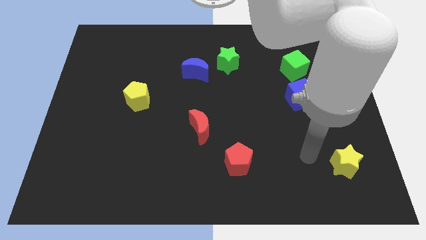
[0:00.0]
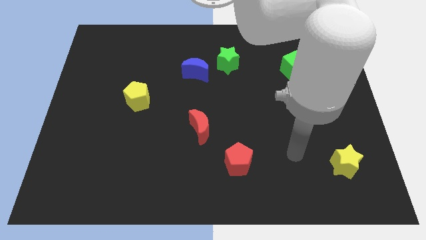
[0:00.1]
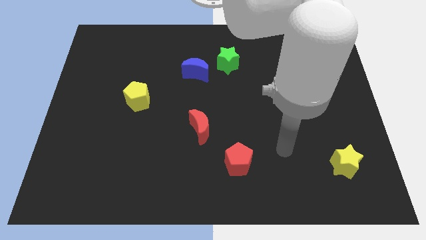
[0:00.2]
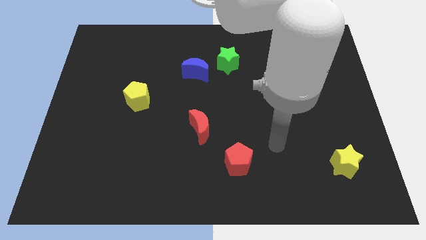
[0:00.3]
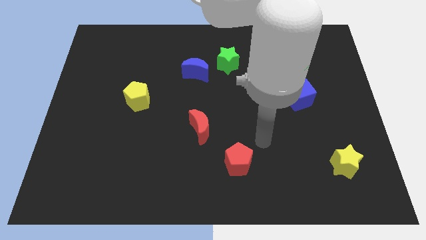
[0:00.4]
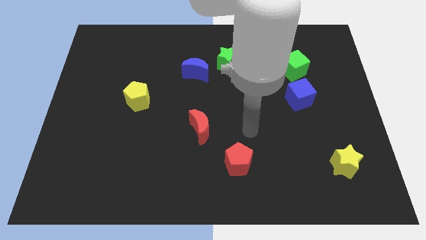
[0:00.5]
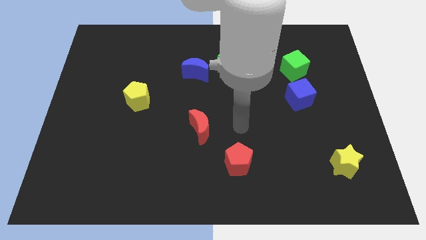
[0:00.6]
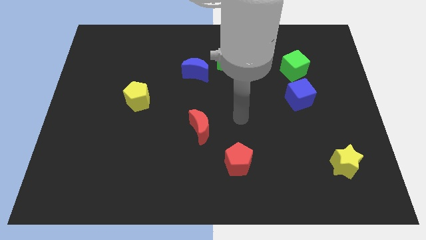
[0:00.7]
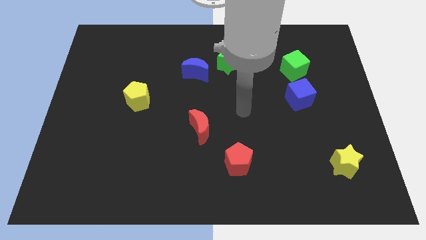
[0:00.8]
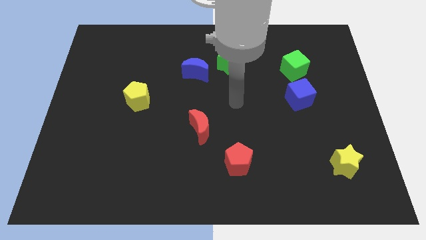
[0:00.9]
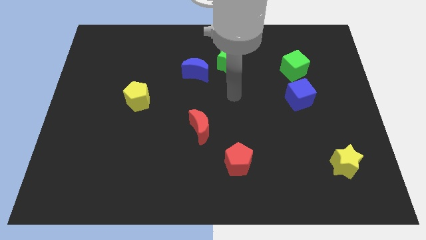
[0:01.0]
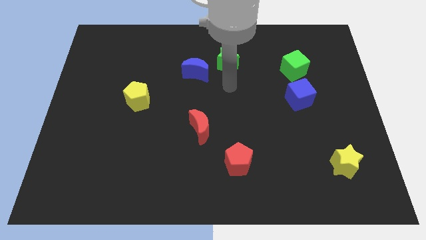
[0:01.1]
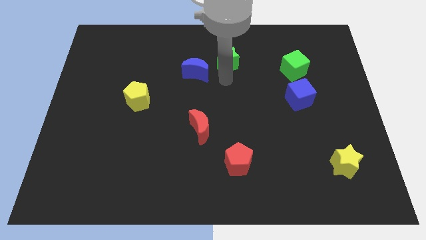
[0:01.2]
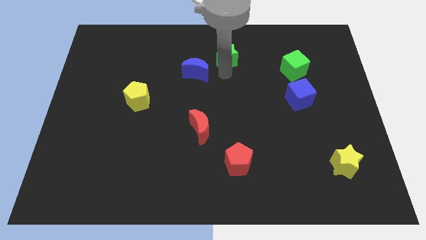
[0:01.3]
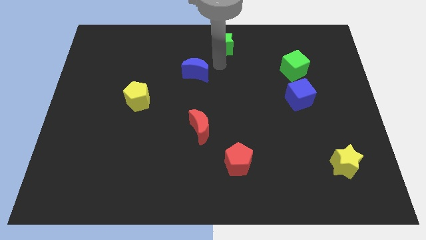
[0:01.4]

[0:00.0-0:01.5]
move the blue moon away from the green star

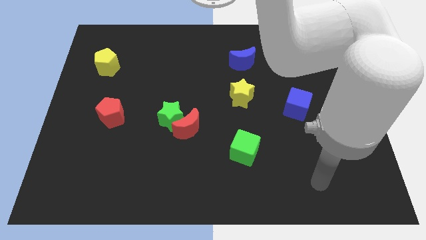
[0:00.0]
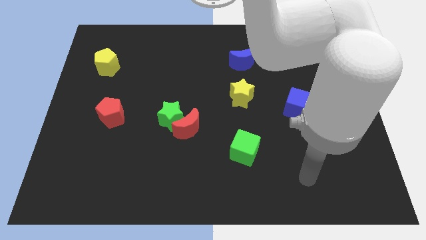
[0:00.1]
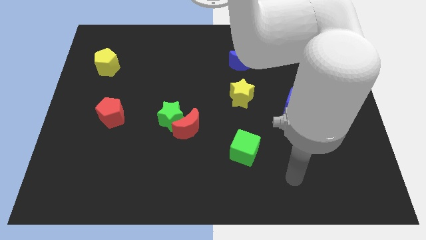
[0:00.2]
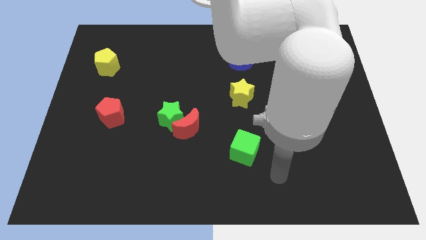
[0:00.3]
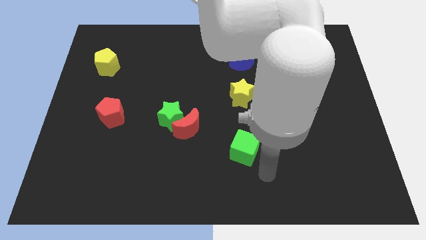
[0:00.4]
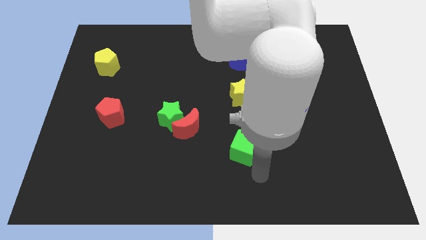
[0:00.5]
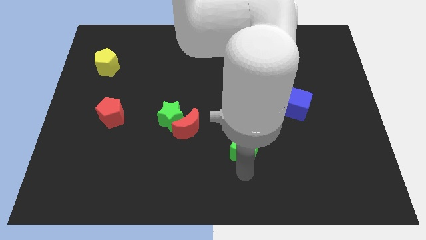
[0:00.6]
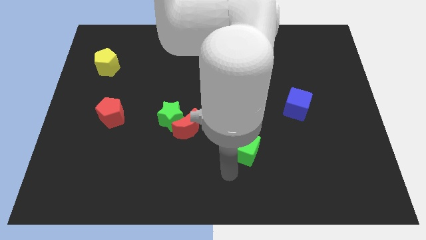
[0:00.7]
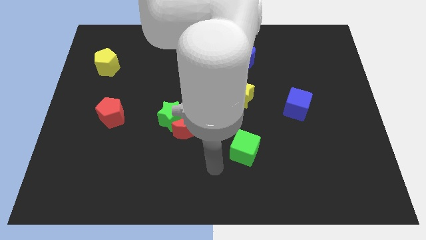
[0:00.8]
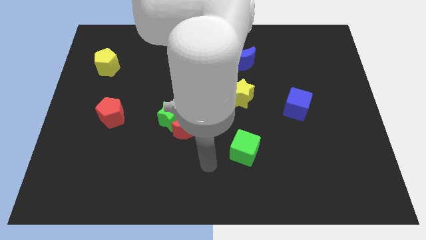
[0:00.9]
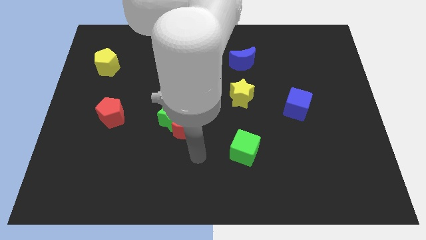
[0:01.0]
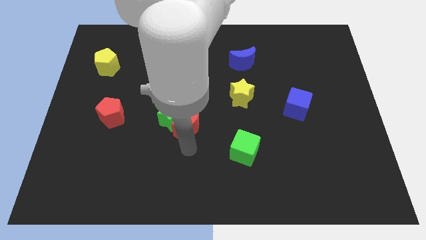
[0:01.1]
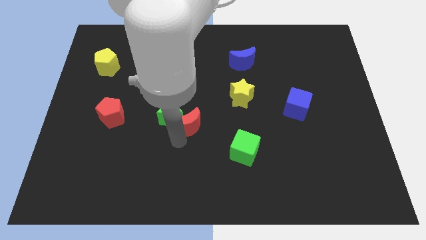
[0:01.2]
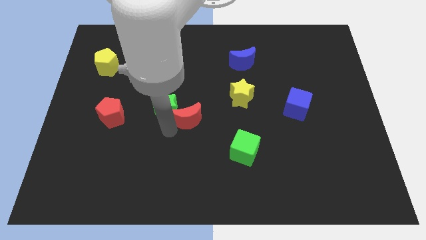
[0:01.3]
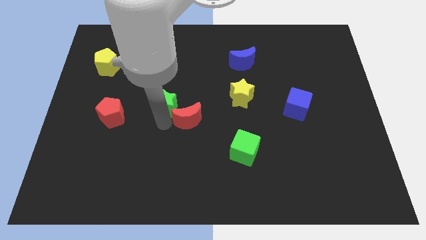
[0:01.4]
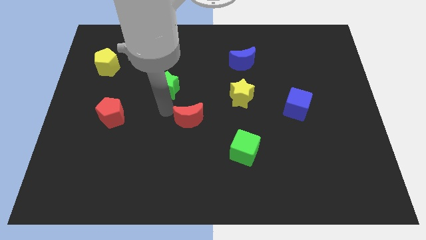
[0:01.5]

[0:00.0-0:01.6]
separate the red moon from the green star

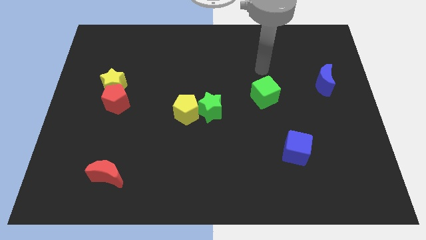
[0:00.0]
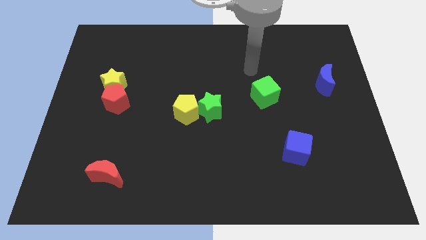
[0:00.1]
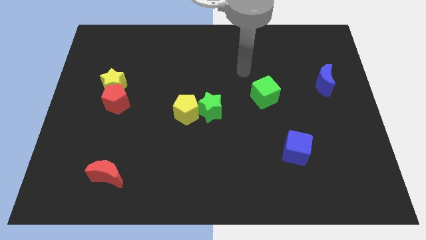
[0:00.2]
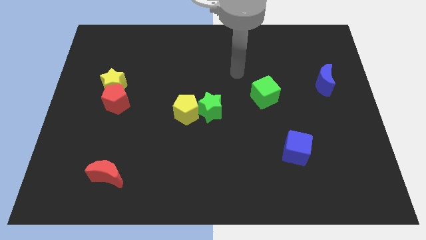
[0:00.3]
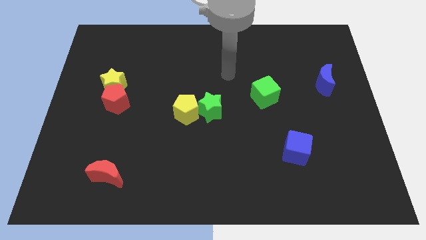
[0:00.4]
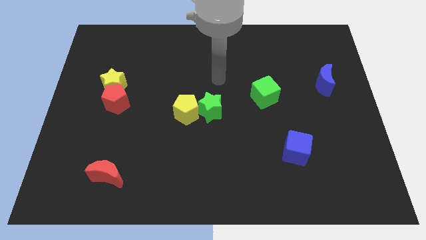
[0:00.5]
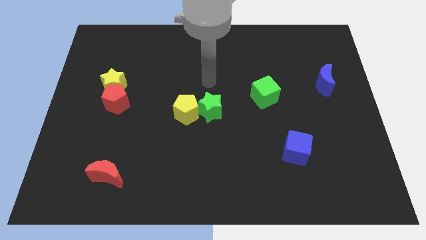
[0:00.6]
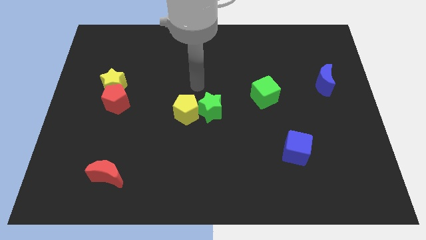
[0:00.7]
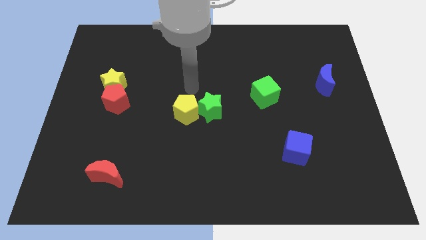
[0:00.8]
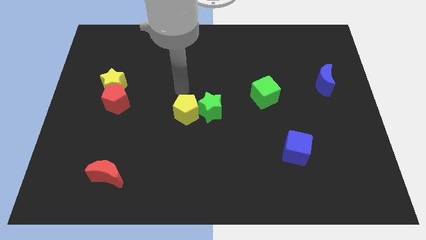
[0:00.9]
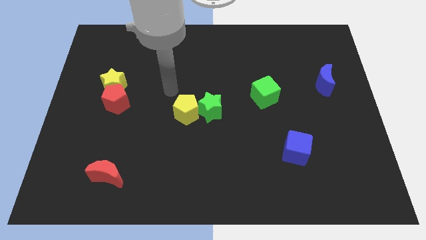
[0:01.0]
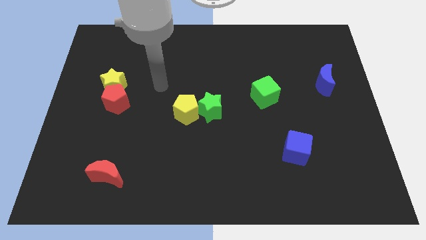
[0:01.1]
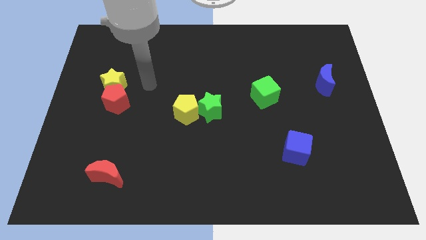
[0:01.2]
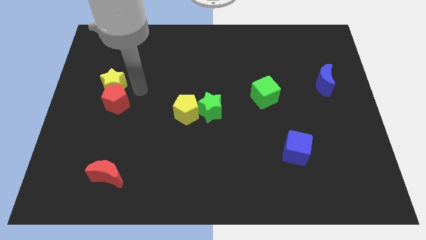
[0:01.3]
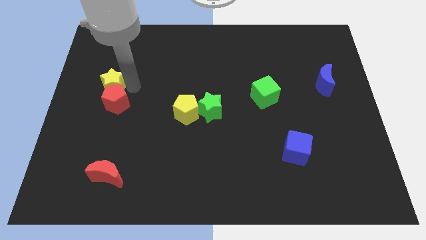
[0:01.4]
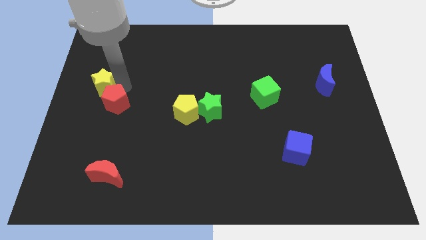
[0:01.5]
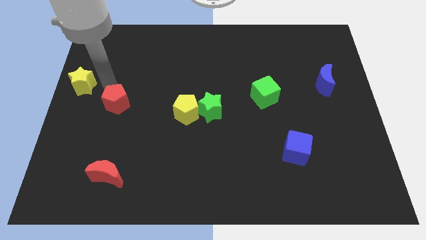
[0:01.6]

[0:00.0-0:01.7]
separate the red pentagon from the yellow star

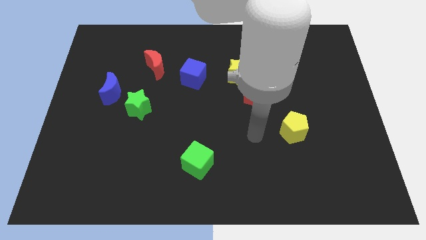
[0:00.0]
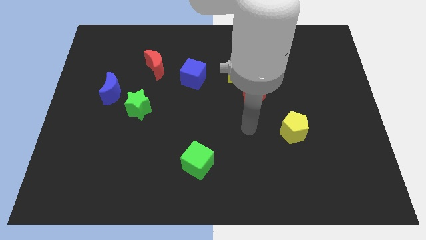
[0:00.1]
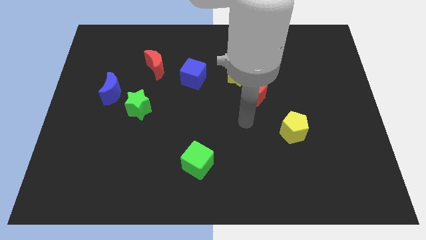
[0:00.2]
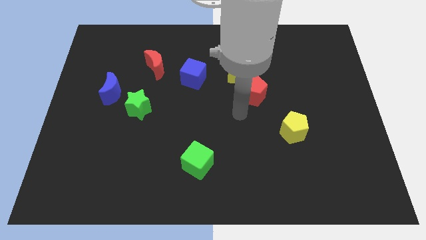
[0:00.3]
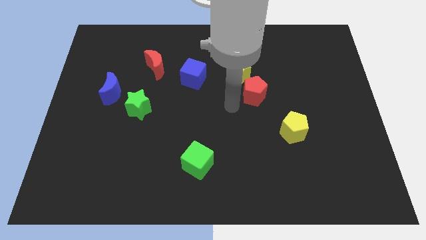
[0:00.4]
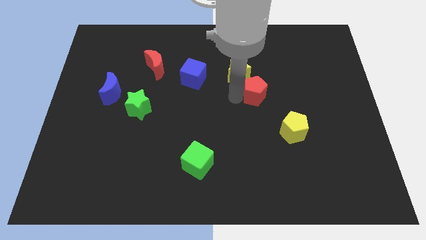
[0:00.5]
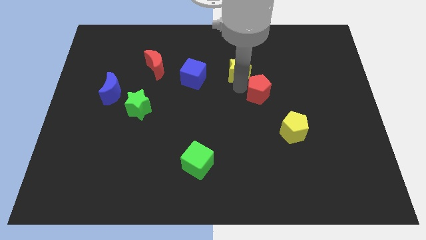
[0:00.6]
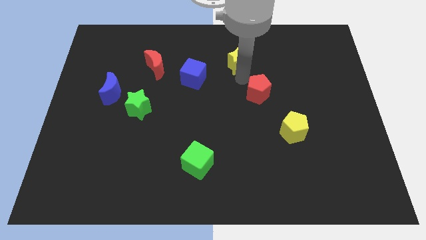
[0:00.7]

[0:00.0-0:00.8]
pull the red pentagon apart from the yellow star

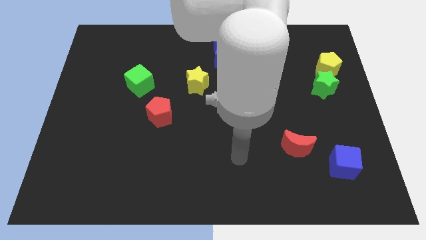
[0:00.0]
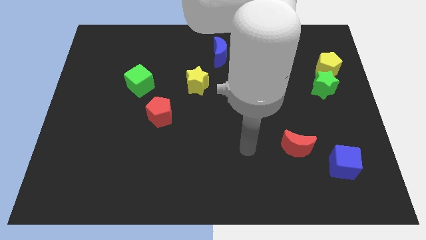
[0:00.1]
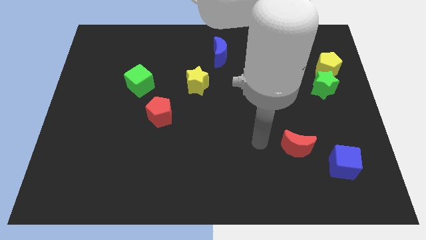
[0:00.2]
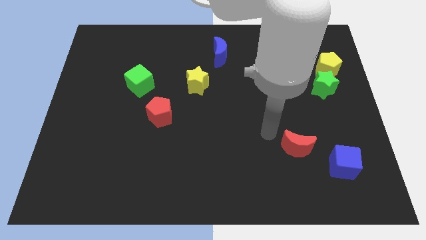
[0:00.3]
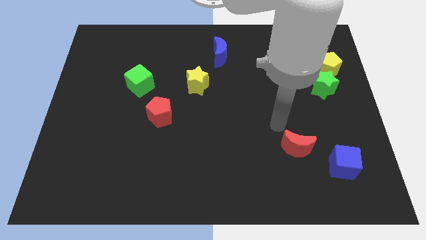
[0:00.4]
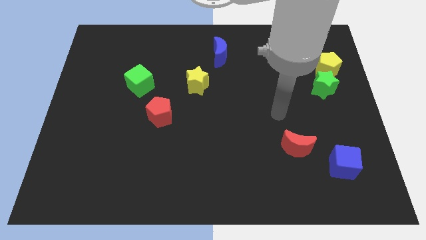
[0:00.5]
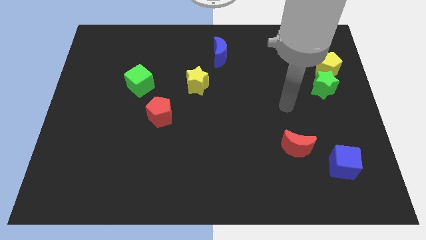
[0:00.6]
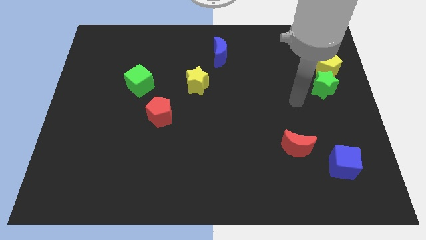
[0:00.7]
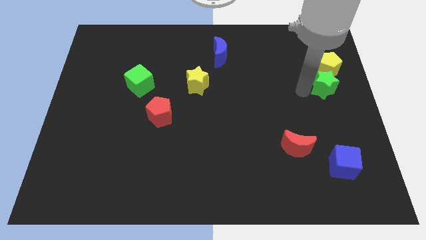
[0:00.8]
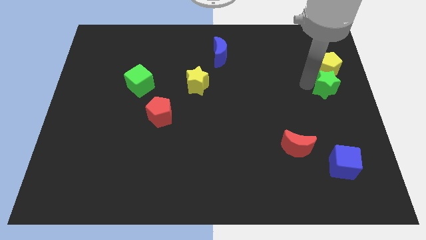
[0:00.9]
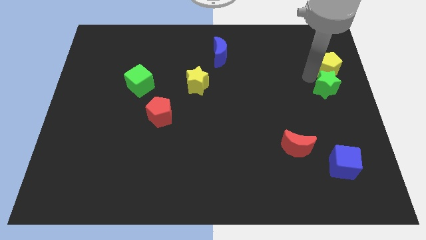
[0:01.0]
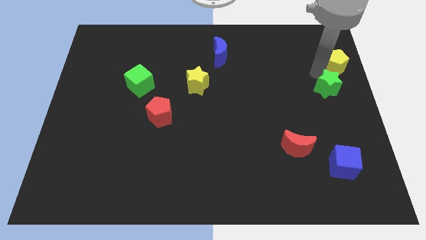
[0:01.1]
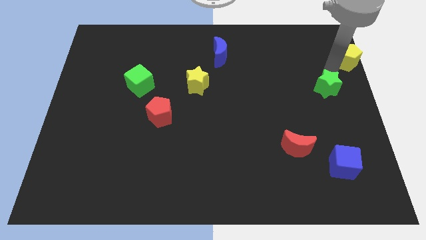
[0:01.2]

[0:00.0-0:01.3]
separate the green star from the yellow pentagon

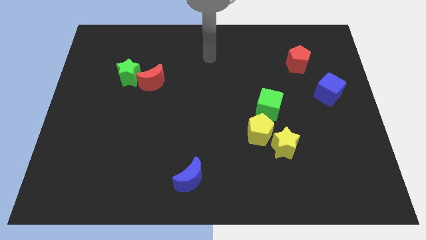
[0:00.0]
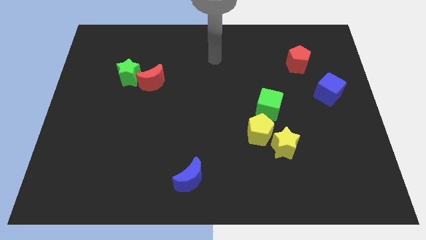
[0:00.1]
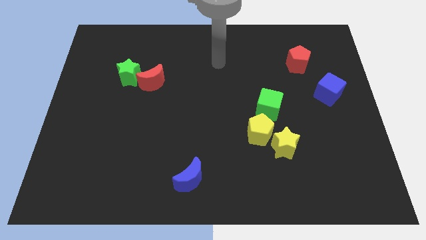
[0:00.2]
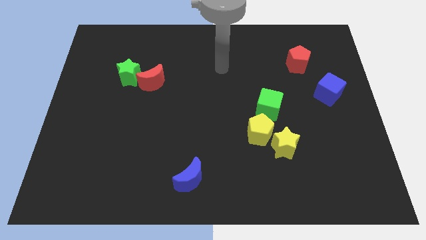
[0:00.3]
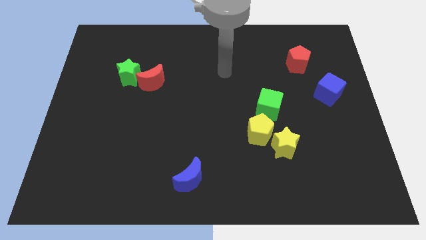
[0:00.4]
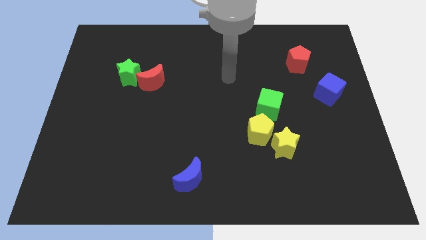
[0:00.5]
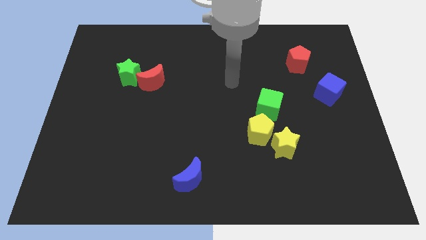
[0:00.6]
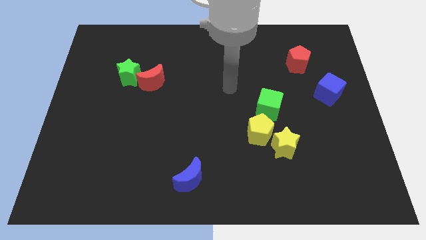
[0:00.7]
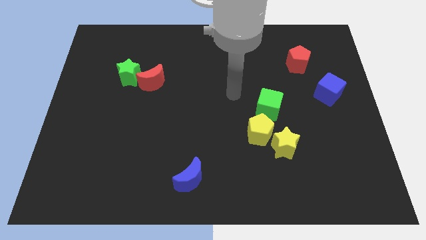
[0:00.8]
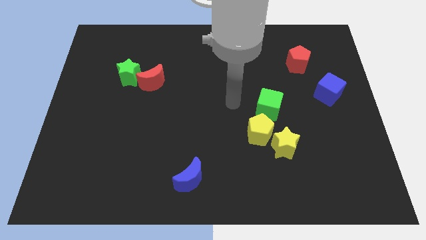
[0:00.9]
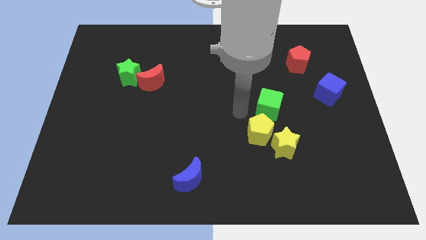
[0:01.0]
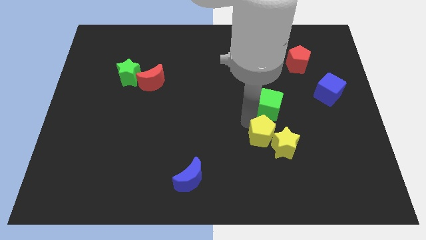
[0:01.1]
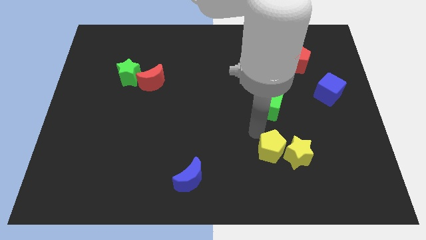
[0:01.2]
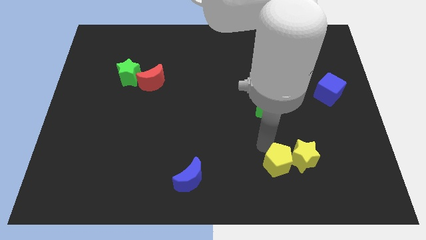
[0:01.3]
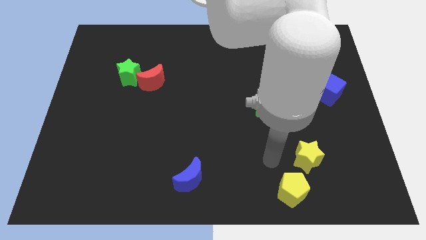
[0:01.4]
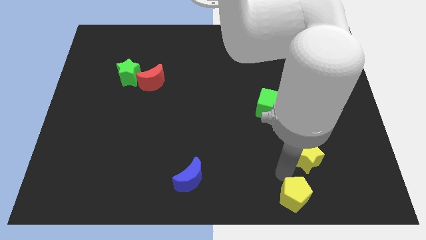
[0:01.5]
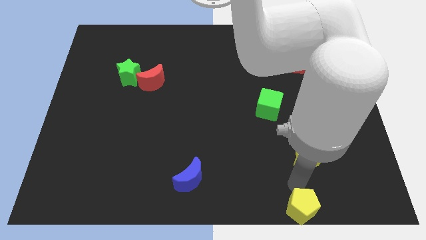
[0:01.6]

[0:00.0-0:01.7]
pull the yellow star apart from the yellow pentagon

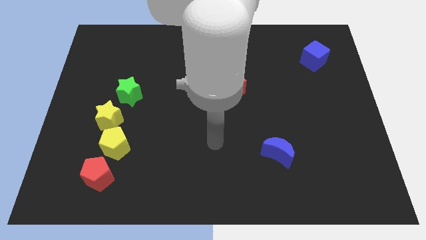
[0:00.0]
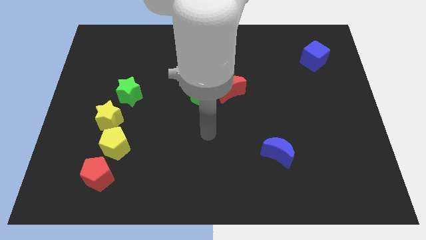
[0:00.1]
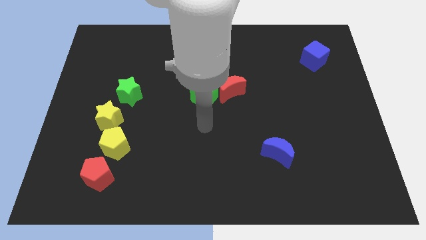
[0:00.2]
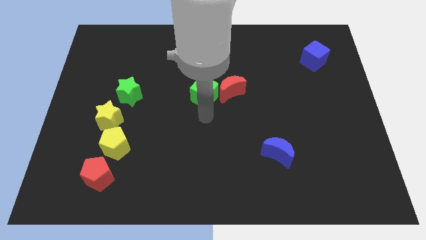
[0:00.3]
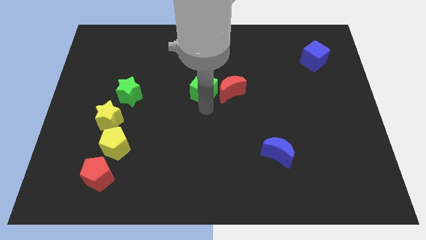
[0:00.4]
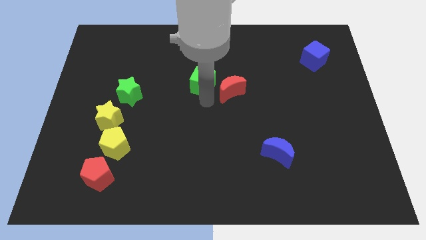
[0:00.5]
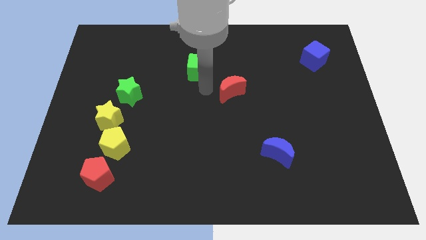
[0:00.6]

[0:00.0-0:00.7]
separate the red moon from the green cube
